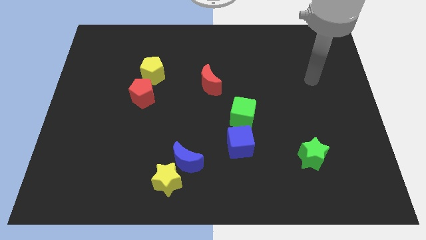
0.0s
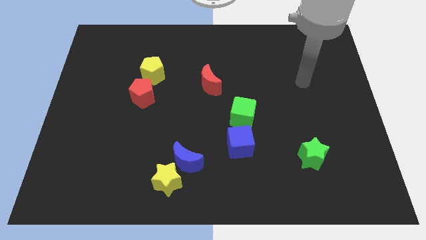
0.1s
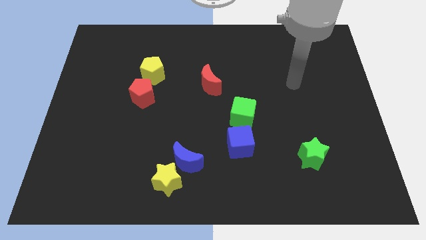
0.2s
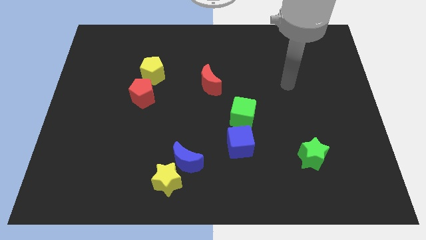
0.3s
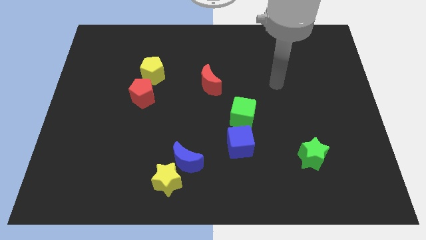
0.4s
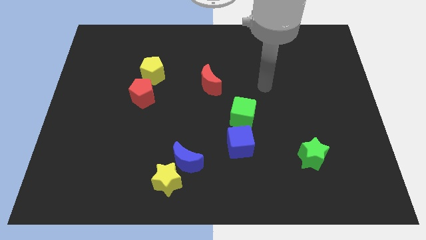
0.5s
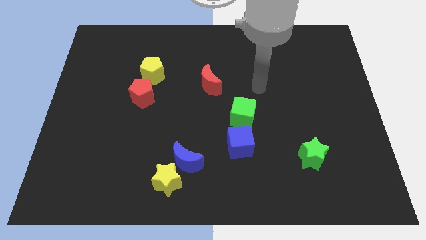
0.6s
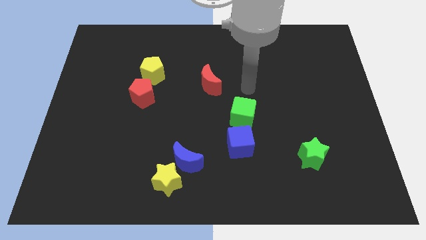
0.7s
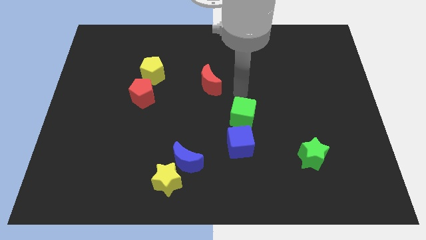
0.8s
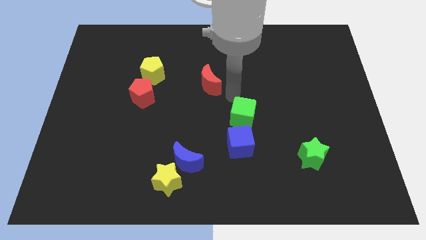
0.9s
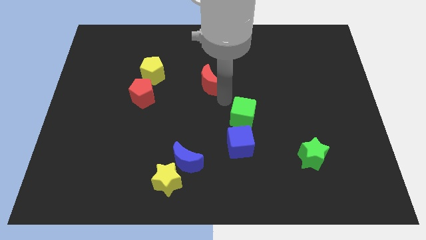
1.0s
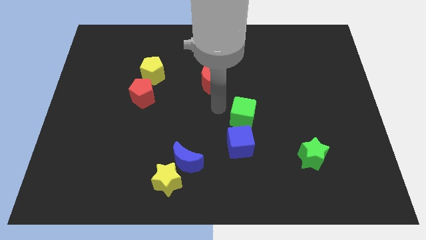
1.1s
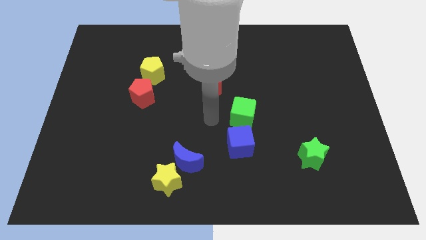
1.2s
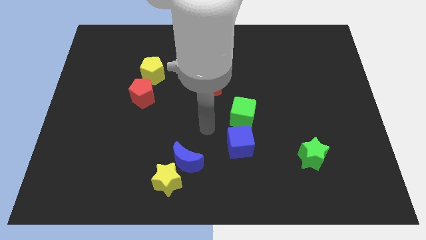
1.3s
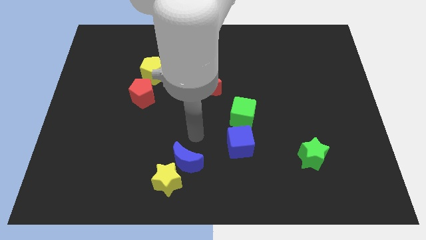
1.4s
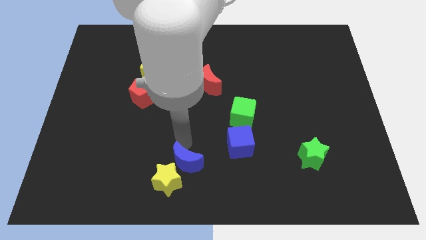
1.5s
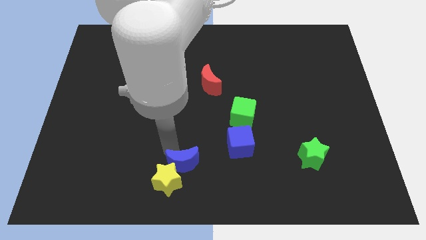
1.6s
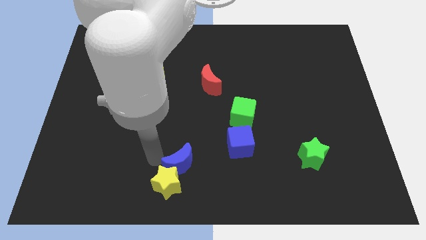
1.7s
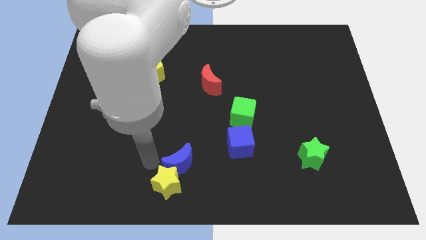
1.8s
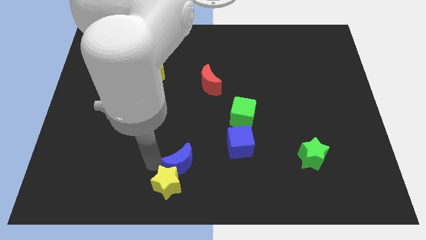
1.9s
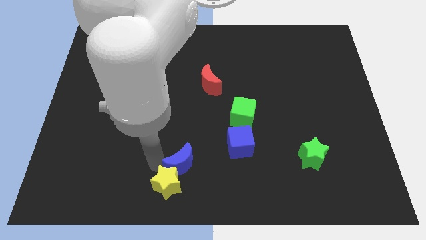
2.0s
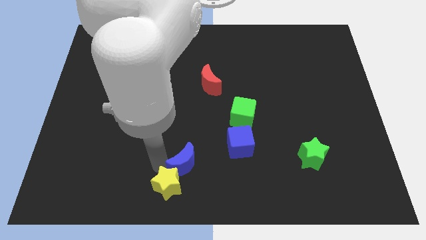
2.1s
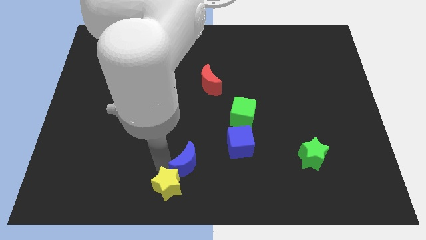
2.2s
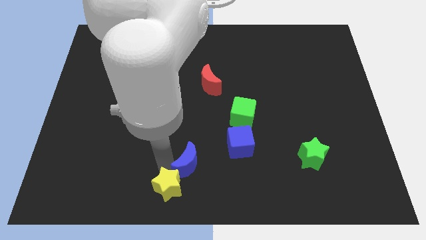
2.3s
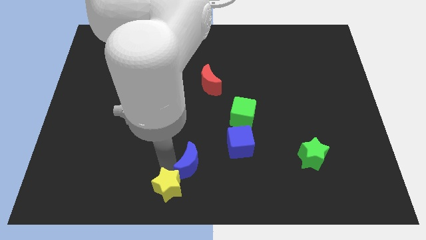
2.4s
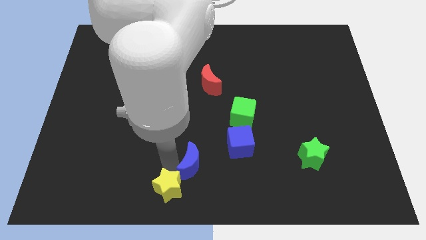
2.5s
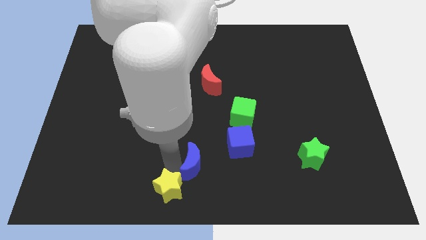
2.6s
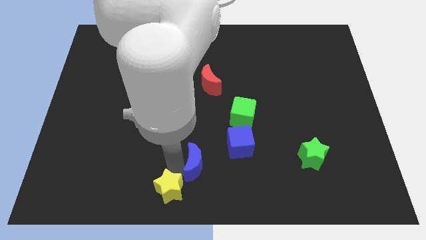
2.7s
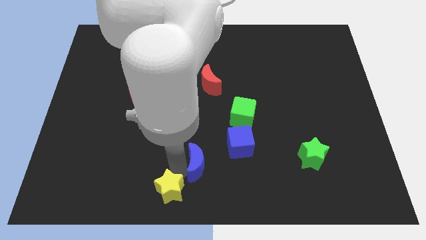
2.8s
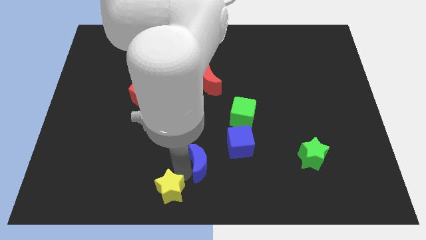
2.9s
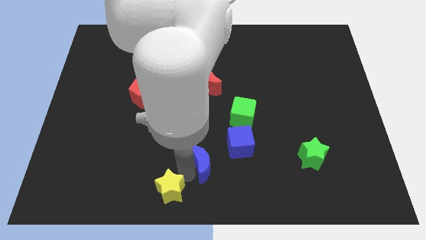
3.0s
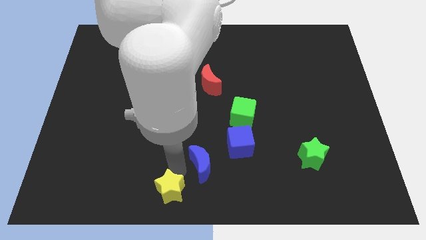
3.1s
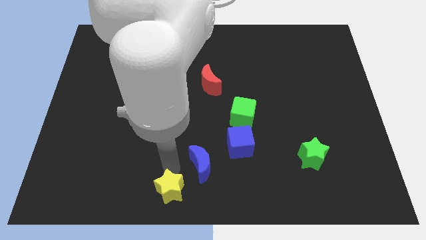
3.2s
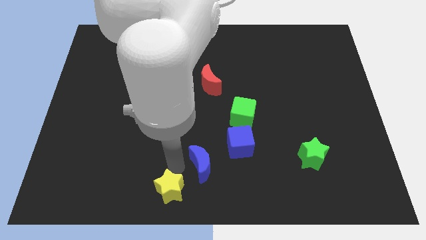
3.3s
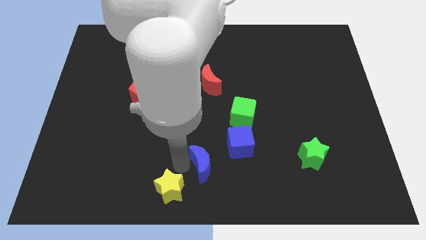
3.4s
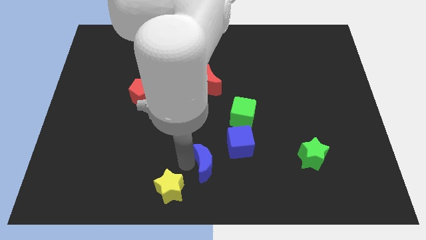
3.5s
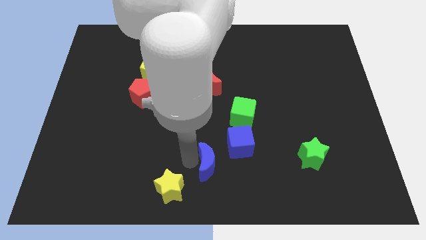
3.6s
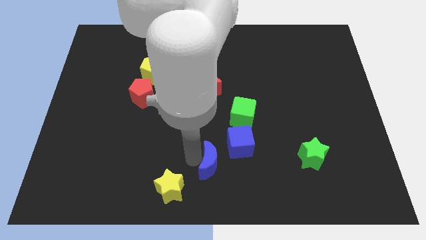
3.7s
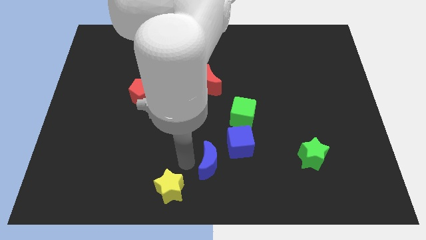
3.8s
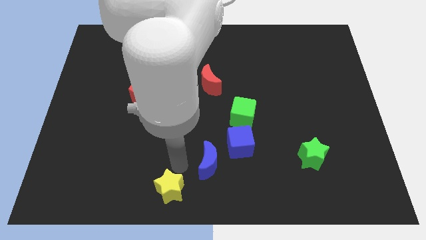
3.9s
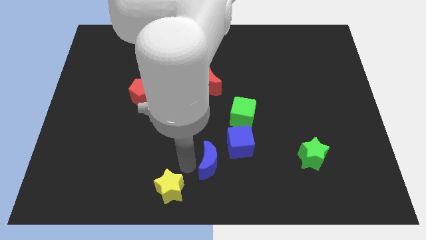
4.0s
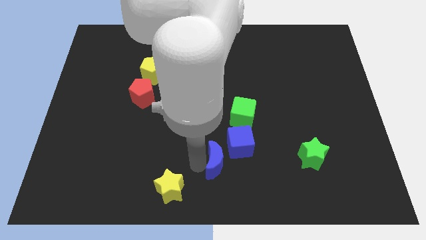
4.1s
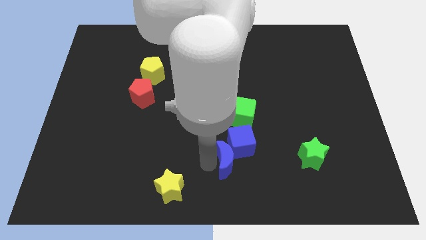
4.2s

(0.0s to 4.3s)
slide the blue moon slightly to the right

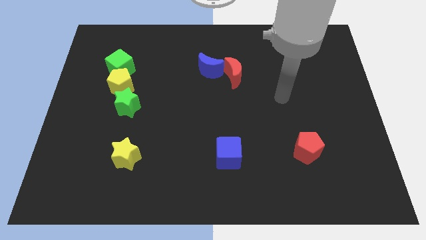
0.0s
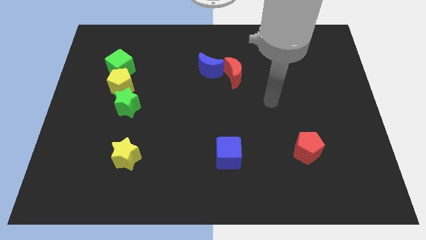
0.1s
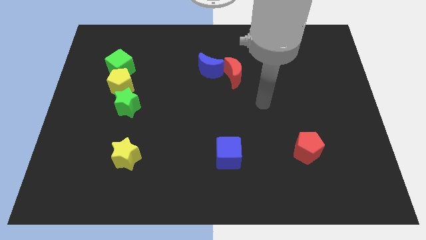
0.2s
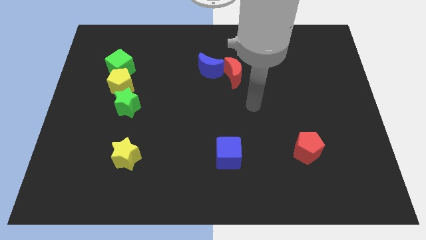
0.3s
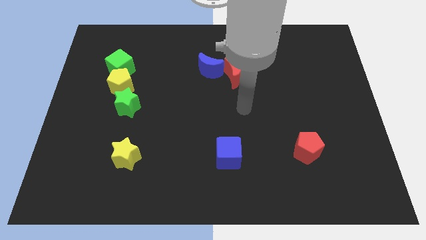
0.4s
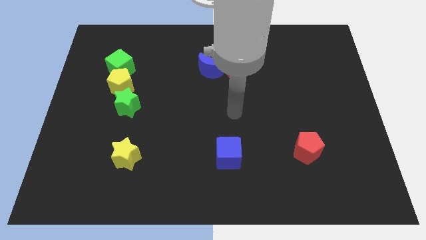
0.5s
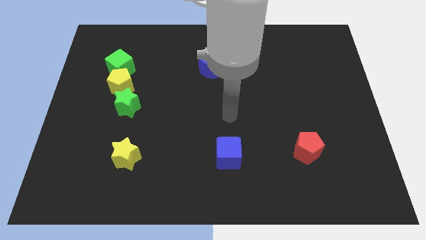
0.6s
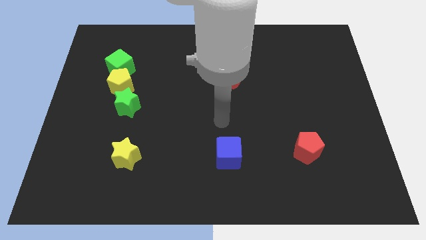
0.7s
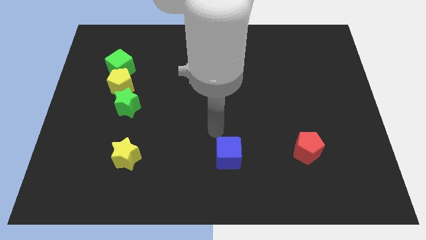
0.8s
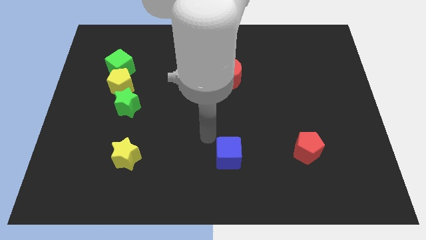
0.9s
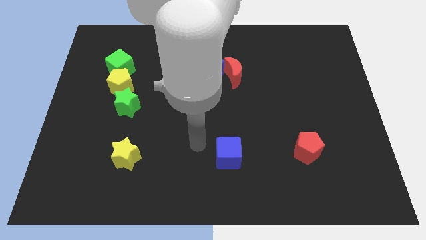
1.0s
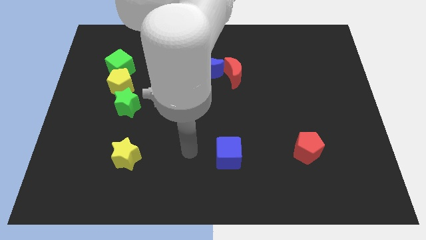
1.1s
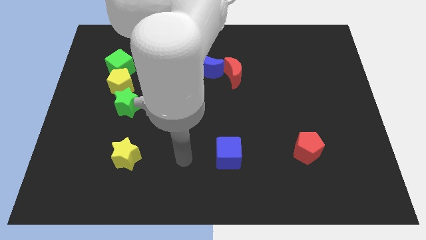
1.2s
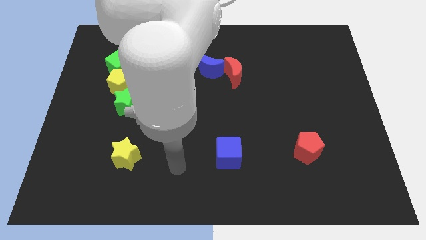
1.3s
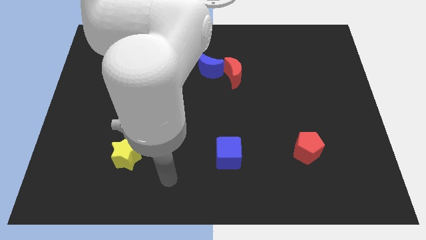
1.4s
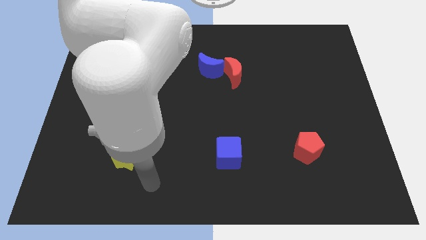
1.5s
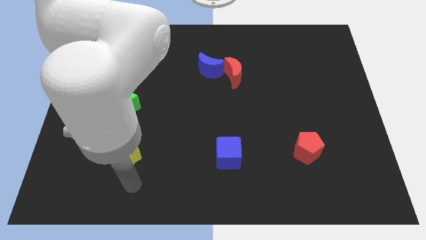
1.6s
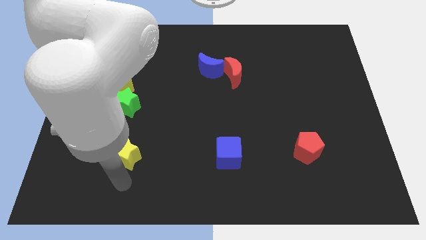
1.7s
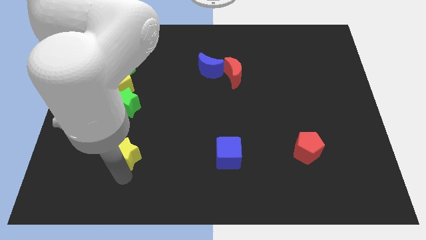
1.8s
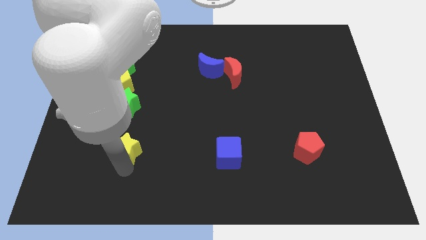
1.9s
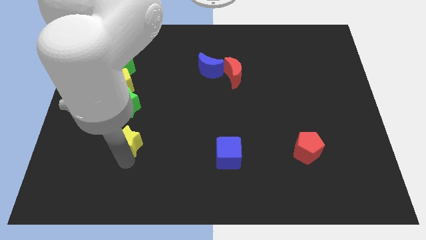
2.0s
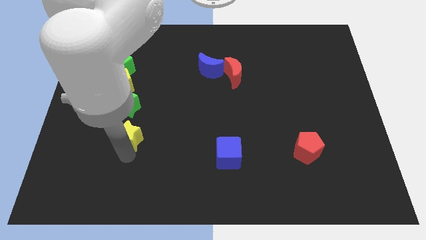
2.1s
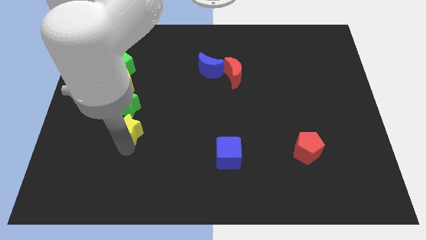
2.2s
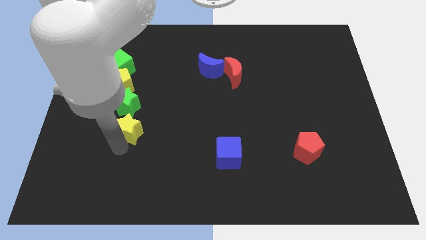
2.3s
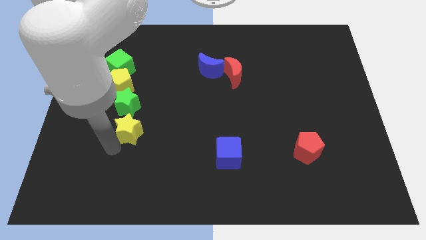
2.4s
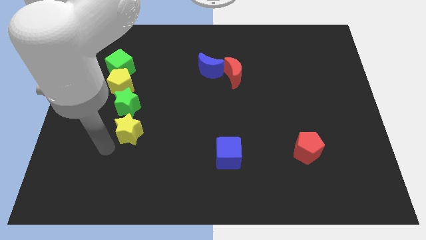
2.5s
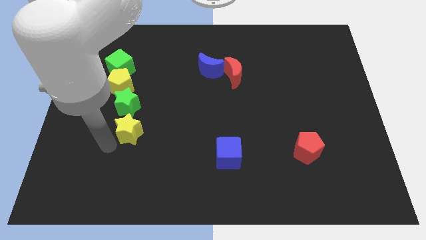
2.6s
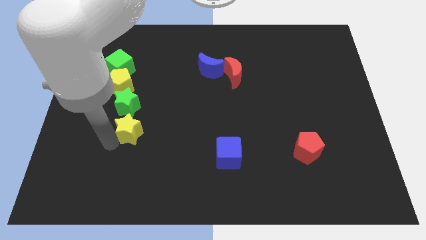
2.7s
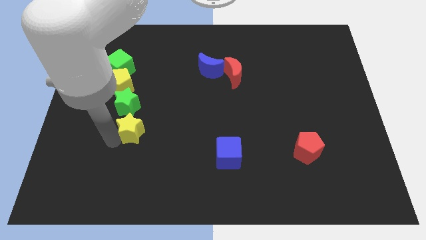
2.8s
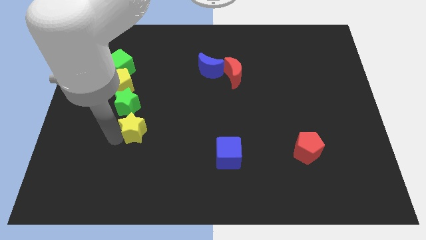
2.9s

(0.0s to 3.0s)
slide the yellow star up a little bit

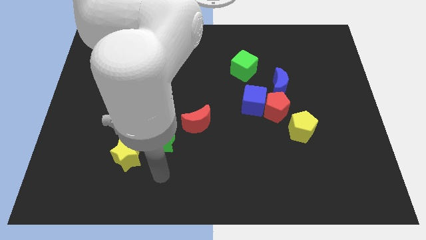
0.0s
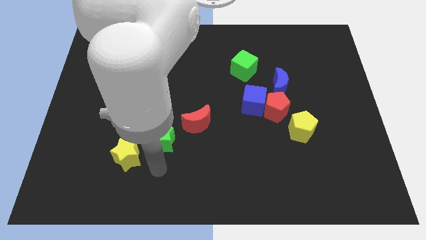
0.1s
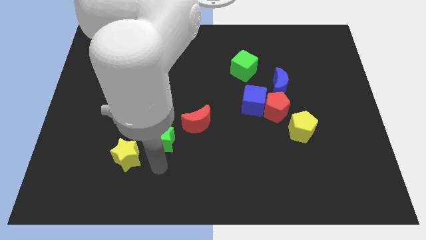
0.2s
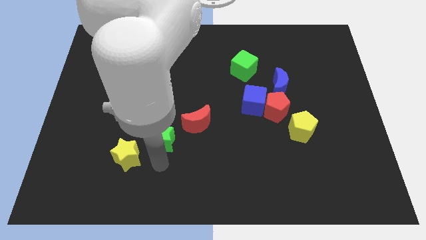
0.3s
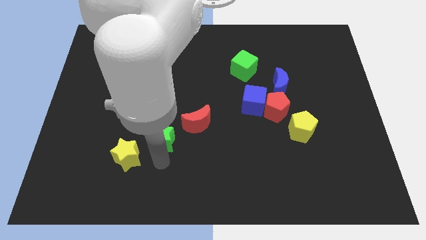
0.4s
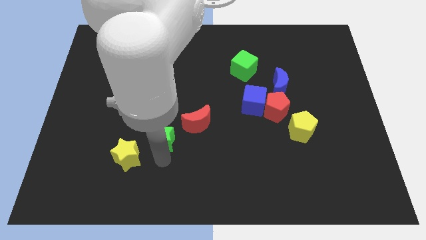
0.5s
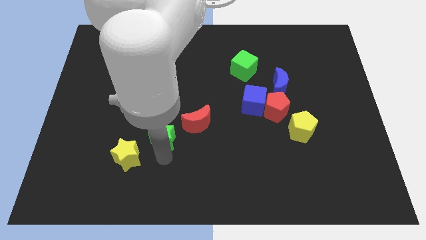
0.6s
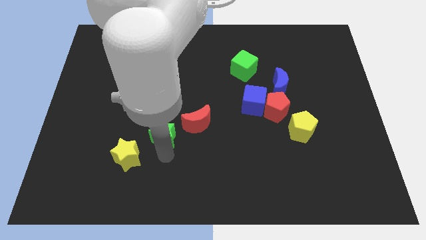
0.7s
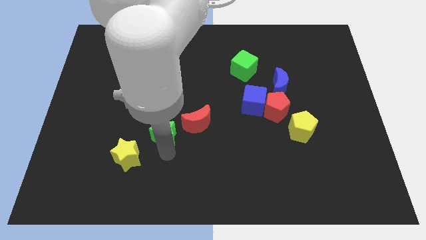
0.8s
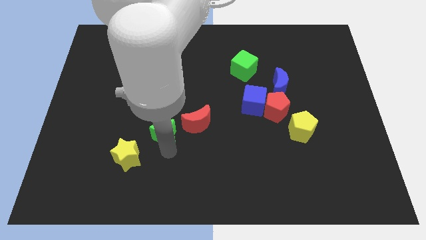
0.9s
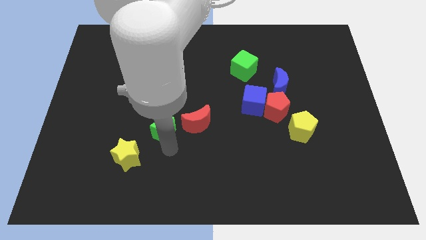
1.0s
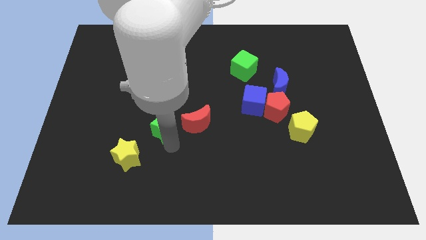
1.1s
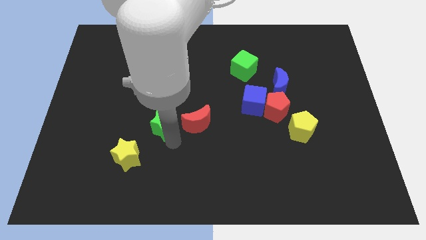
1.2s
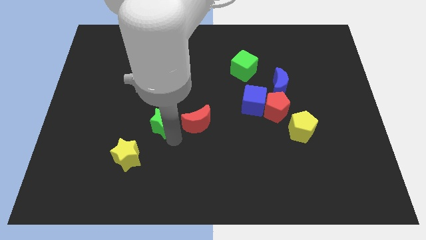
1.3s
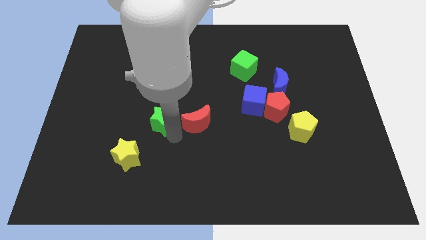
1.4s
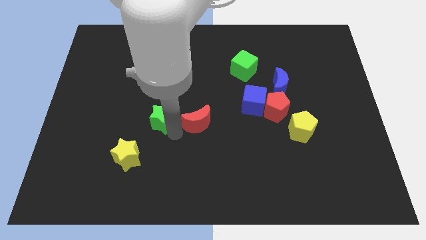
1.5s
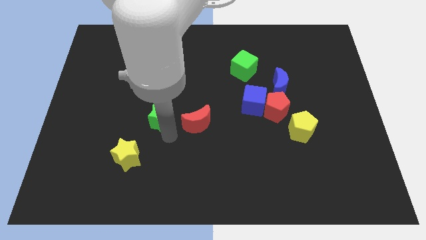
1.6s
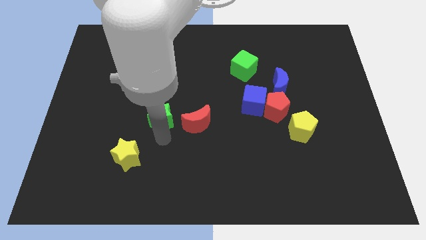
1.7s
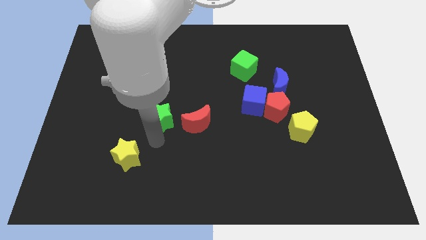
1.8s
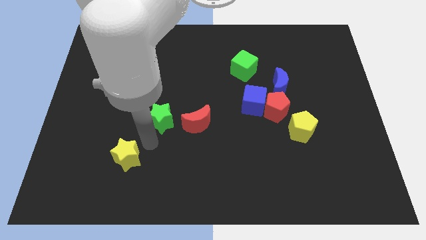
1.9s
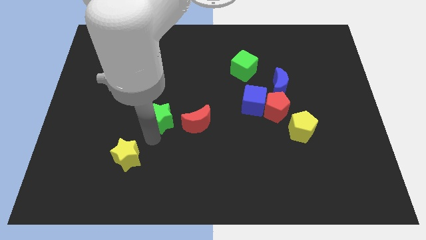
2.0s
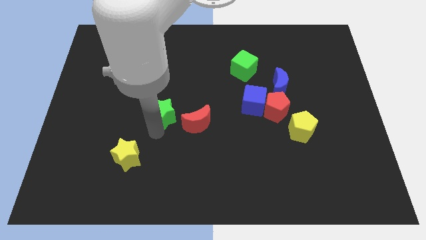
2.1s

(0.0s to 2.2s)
push the green star a bit upwards
